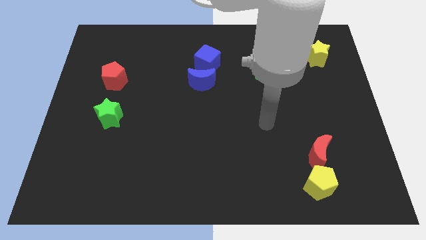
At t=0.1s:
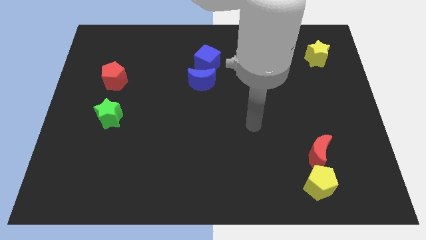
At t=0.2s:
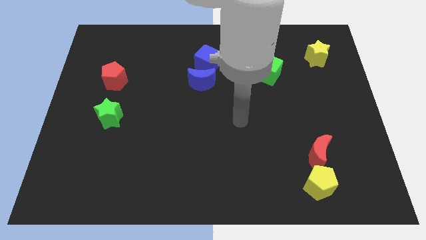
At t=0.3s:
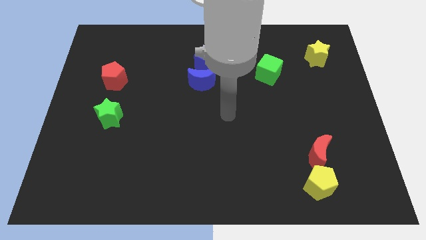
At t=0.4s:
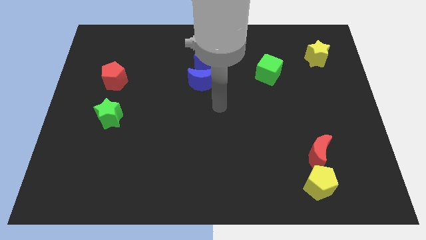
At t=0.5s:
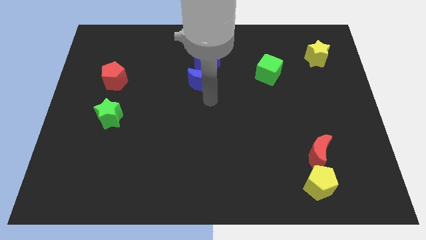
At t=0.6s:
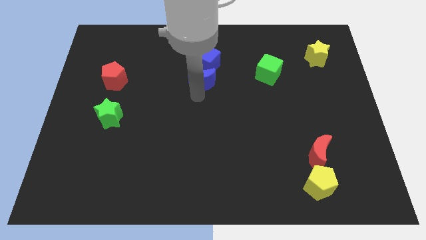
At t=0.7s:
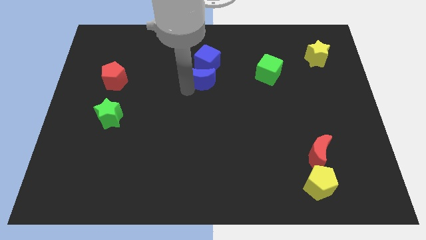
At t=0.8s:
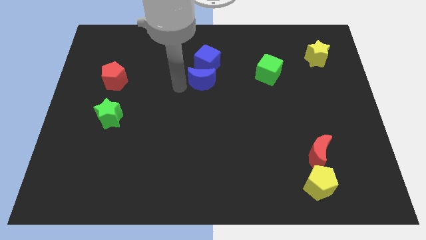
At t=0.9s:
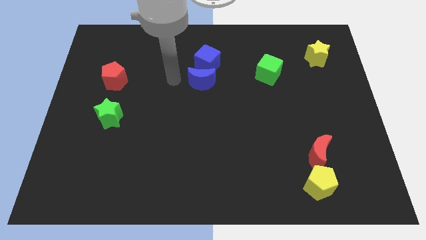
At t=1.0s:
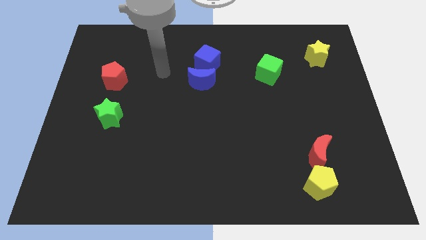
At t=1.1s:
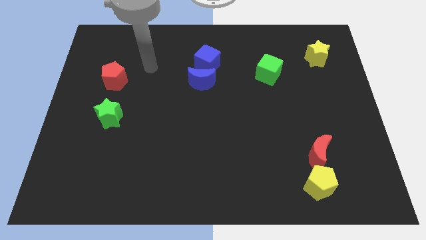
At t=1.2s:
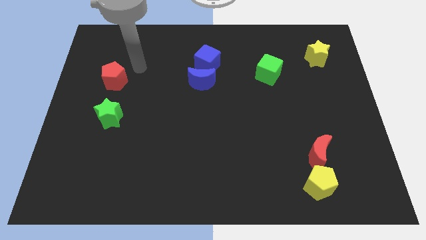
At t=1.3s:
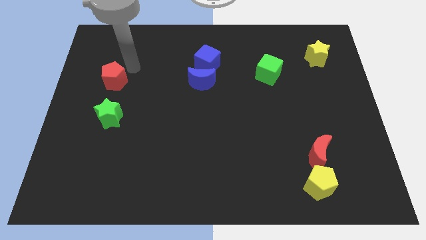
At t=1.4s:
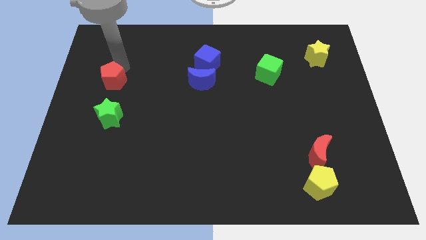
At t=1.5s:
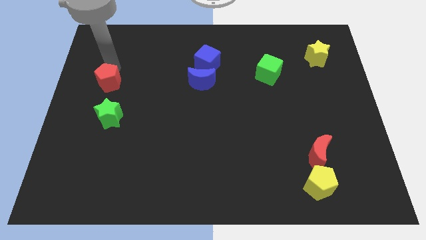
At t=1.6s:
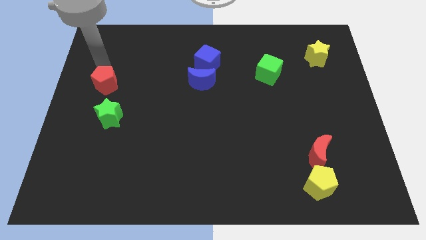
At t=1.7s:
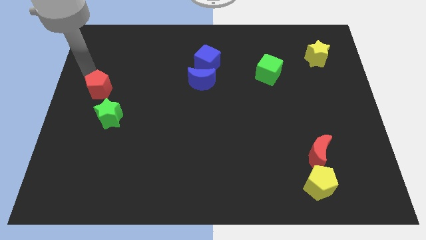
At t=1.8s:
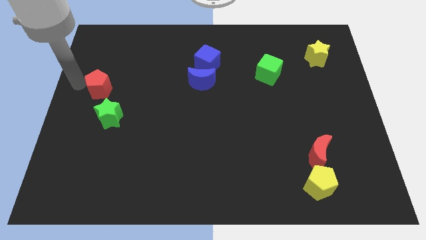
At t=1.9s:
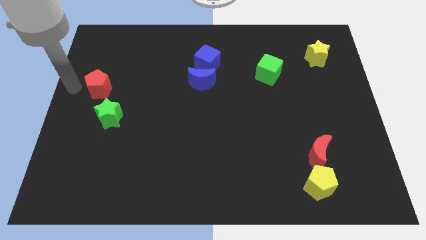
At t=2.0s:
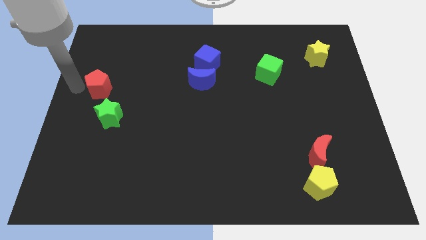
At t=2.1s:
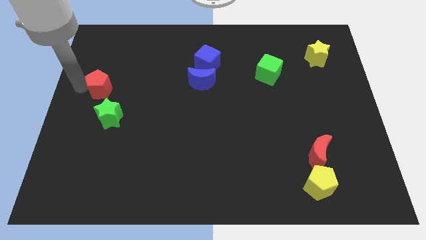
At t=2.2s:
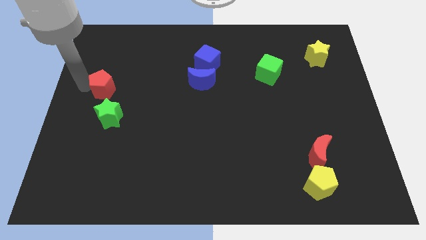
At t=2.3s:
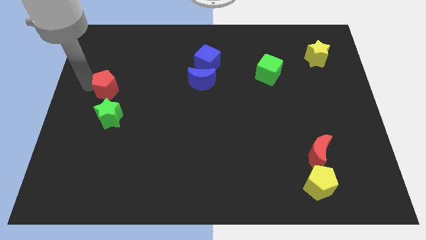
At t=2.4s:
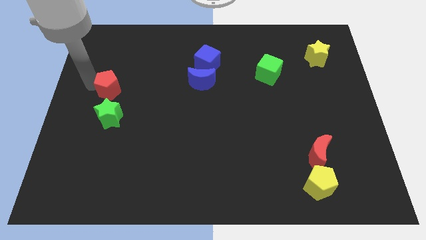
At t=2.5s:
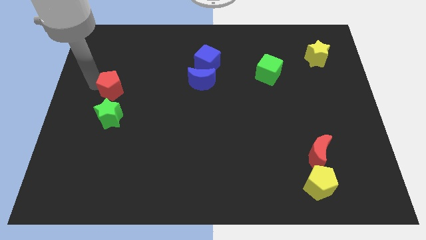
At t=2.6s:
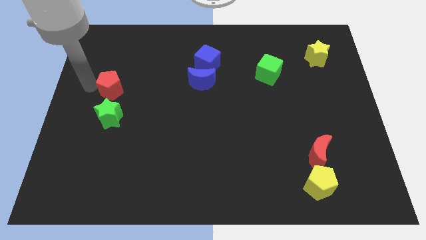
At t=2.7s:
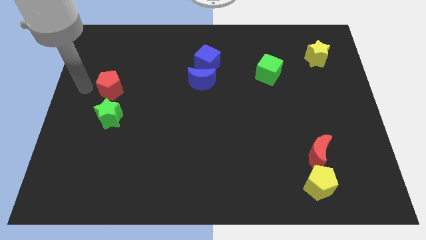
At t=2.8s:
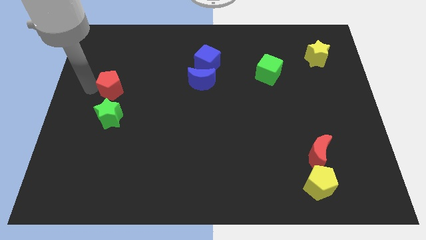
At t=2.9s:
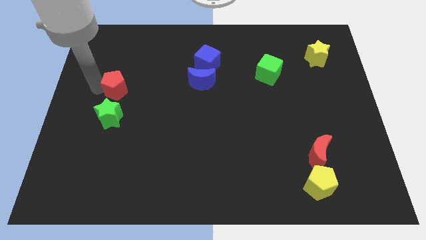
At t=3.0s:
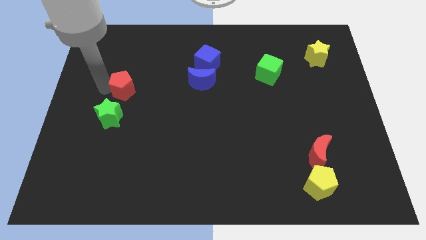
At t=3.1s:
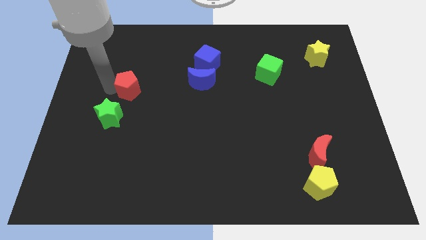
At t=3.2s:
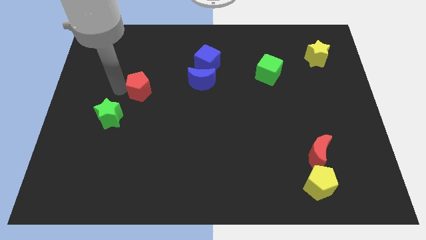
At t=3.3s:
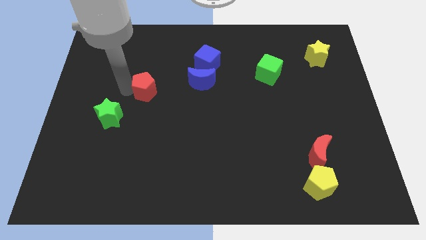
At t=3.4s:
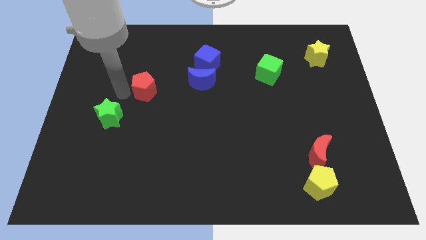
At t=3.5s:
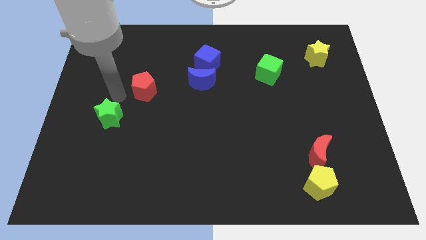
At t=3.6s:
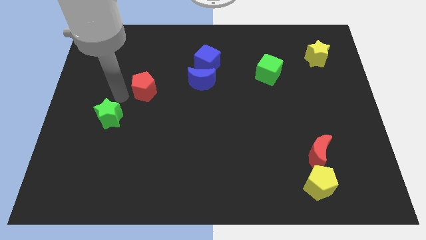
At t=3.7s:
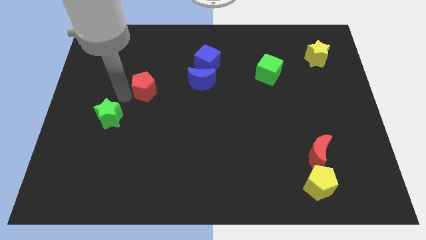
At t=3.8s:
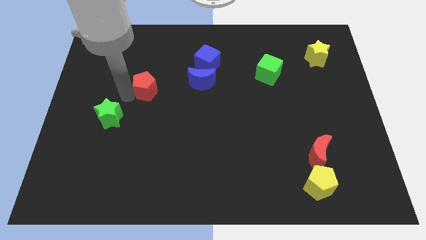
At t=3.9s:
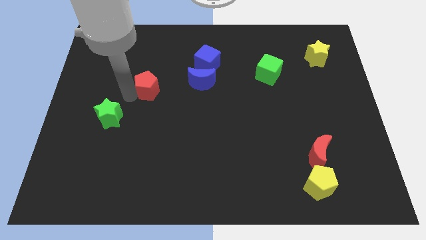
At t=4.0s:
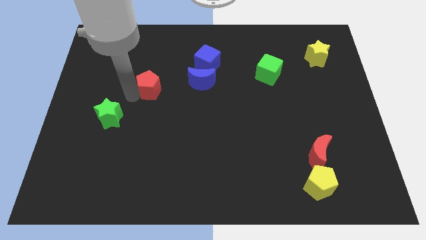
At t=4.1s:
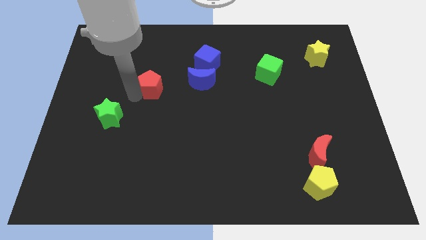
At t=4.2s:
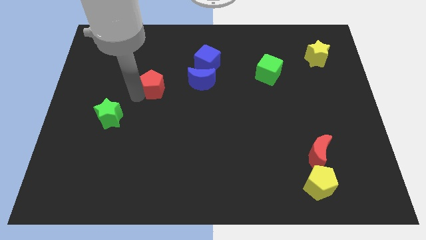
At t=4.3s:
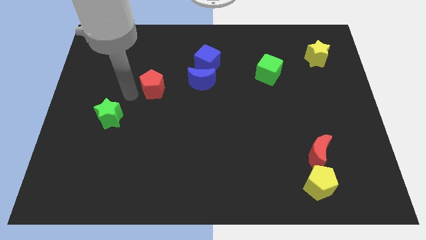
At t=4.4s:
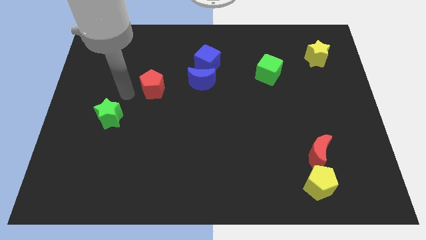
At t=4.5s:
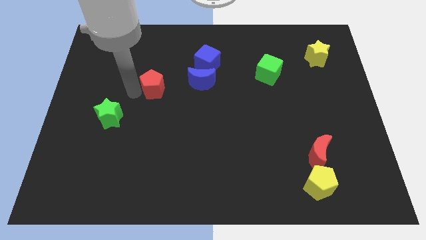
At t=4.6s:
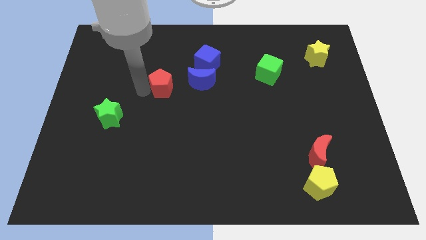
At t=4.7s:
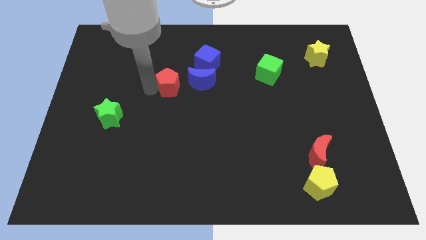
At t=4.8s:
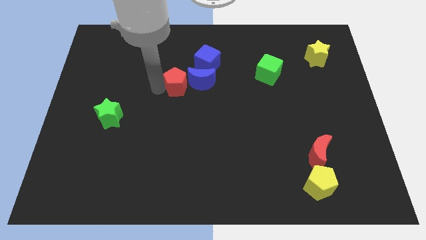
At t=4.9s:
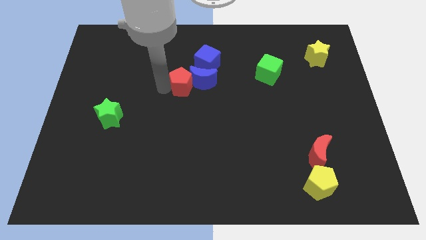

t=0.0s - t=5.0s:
push the red pentagon towards the blue moon

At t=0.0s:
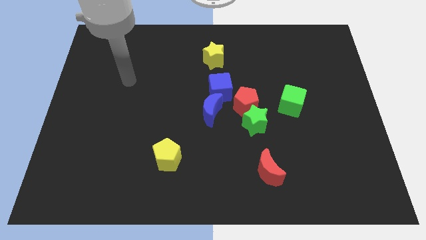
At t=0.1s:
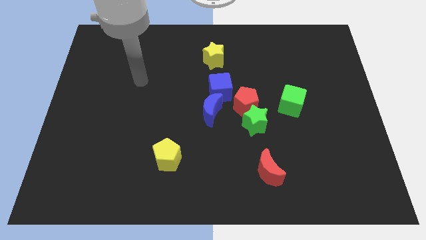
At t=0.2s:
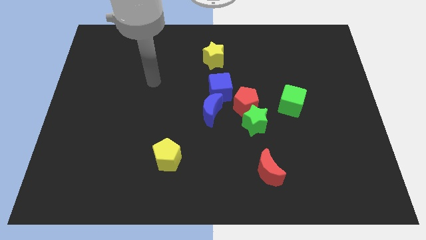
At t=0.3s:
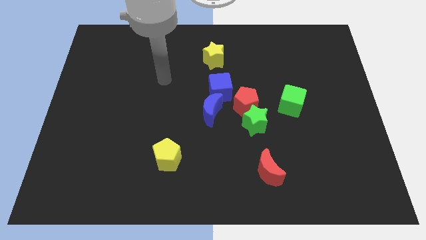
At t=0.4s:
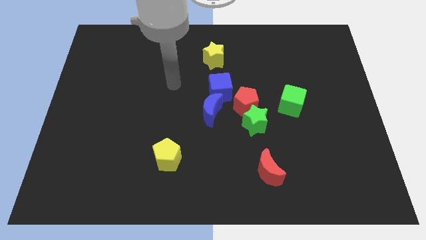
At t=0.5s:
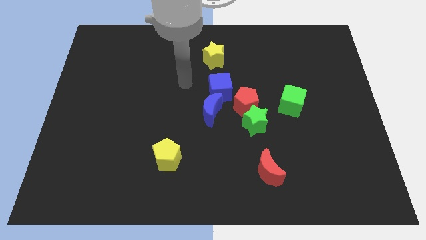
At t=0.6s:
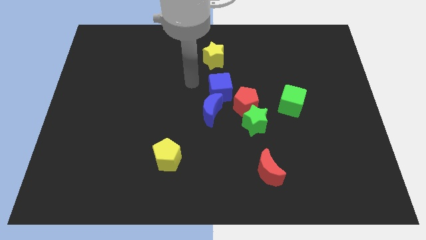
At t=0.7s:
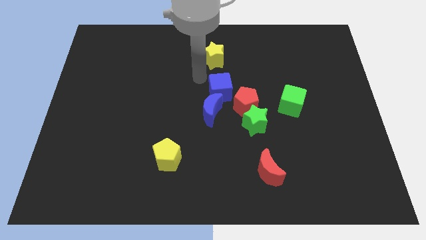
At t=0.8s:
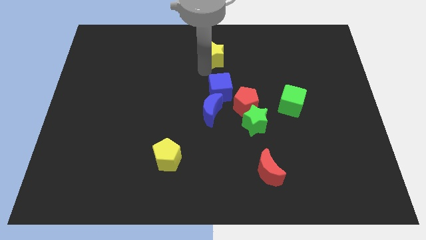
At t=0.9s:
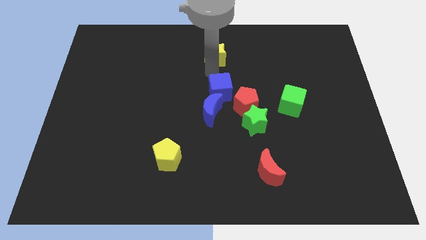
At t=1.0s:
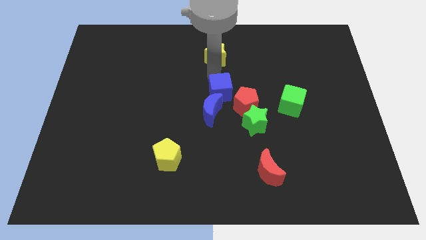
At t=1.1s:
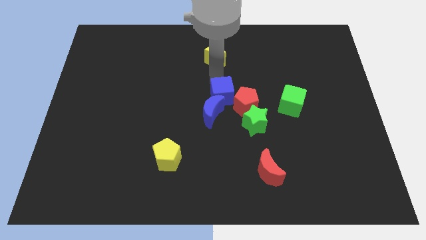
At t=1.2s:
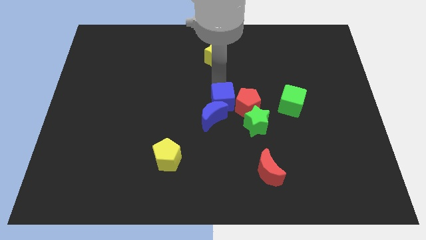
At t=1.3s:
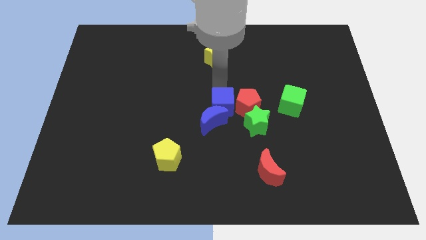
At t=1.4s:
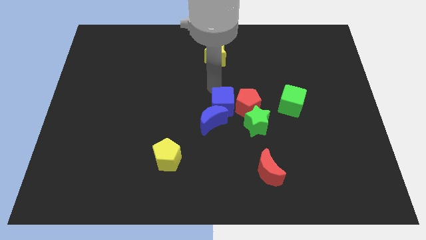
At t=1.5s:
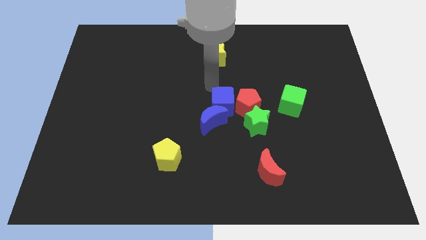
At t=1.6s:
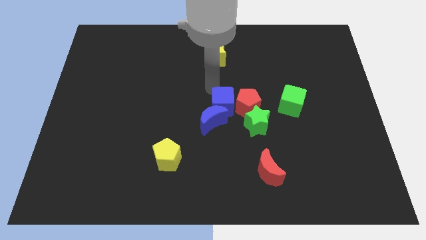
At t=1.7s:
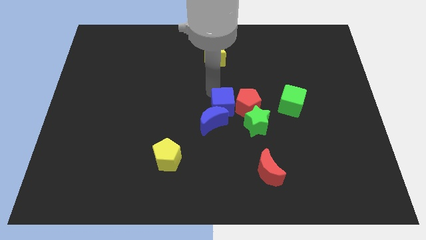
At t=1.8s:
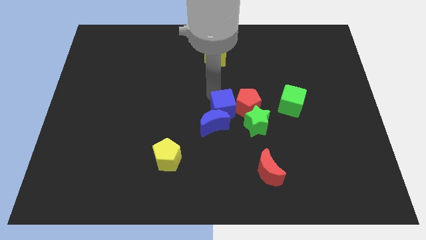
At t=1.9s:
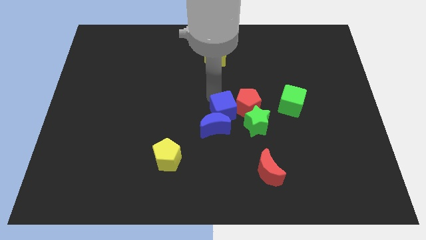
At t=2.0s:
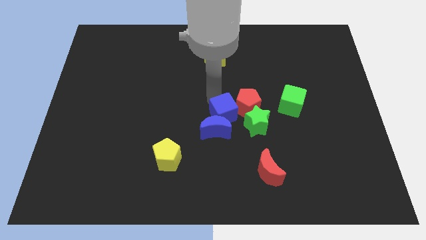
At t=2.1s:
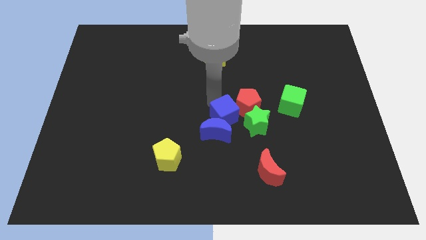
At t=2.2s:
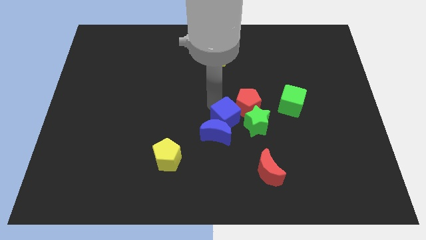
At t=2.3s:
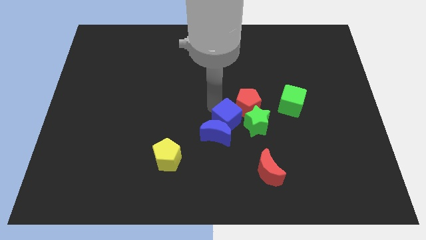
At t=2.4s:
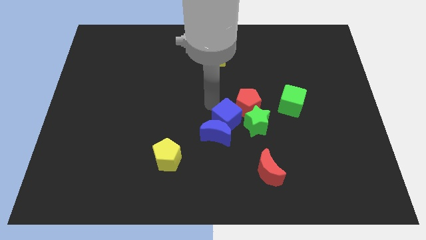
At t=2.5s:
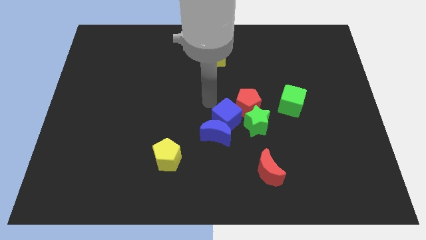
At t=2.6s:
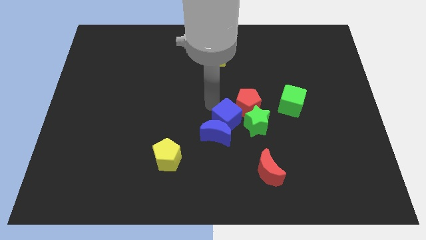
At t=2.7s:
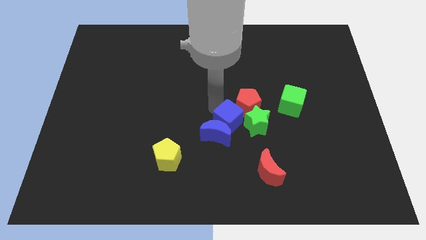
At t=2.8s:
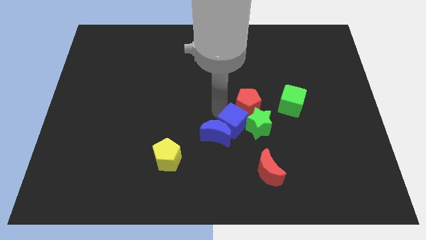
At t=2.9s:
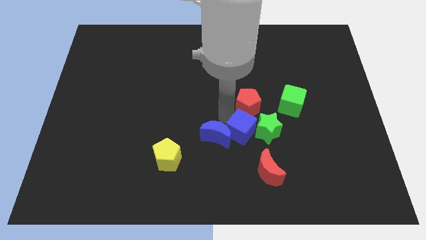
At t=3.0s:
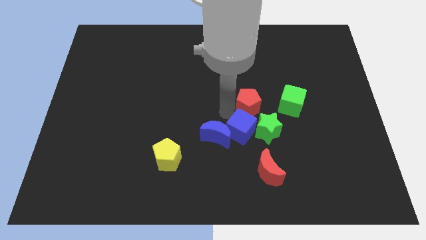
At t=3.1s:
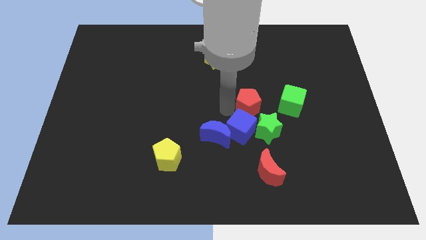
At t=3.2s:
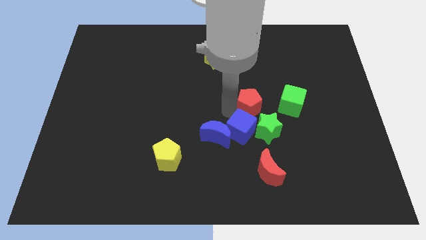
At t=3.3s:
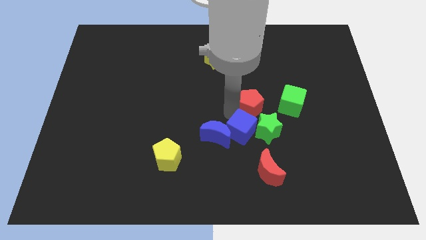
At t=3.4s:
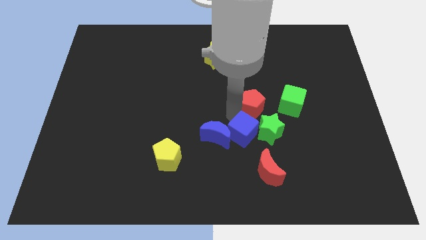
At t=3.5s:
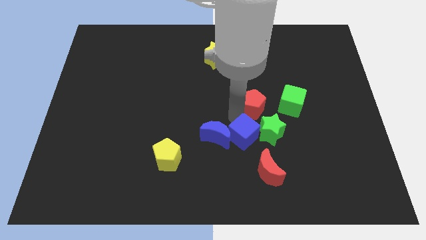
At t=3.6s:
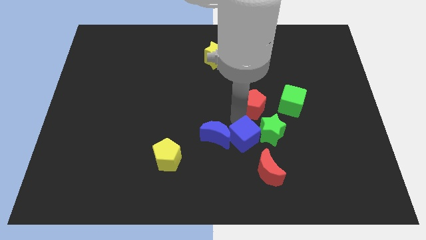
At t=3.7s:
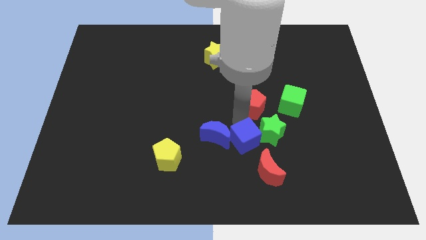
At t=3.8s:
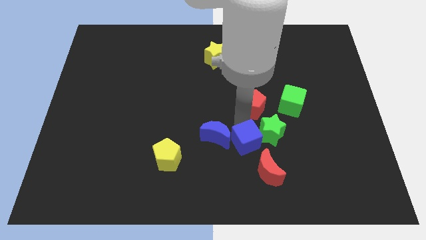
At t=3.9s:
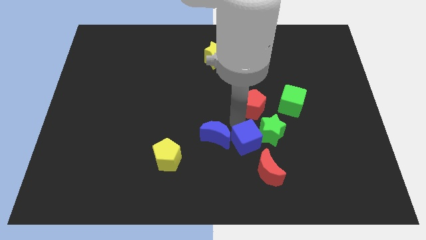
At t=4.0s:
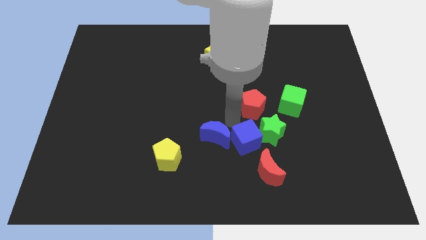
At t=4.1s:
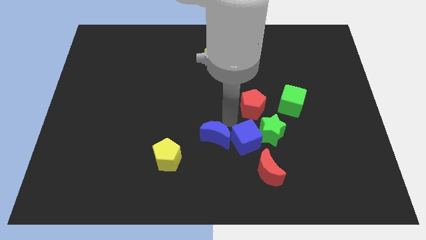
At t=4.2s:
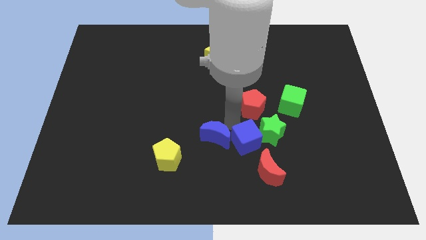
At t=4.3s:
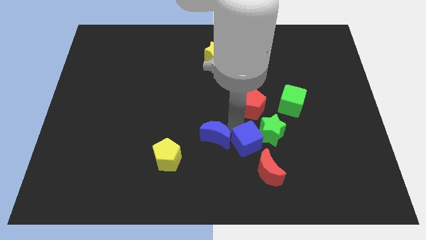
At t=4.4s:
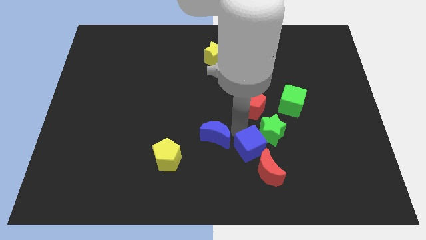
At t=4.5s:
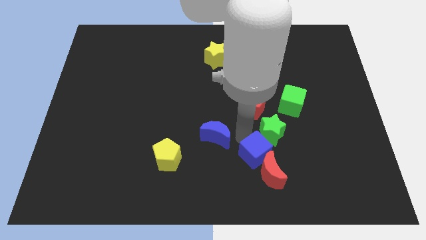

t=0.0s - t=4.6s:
put the blue cube close to the red moon
